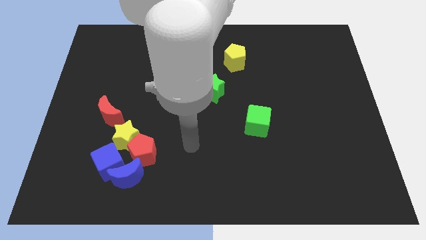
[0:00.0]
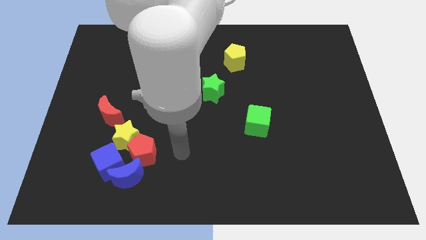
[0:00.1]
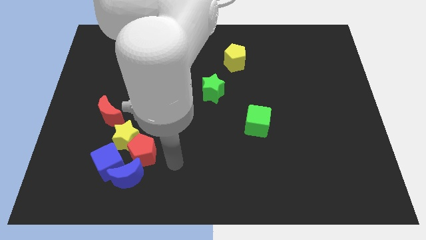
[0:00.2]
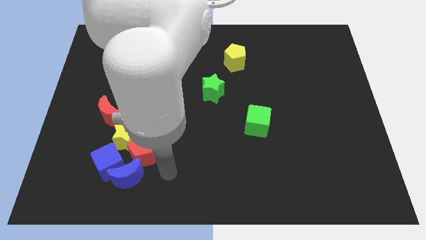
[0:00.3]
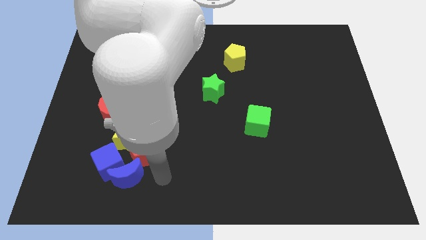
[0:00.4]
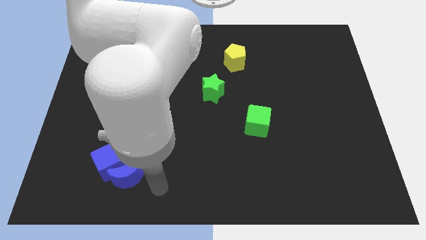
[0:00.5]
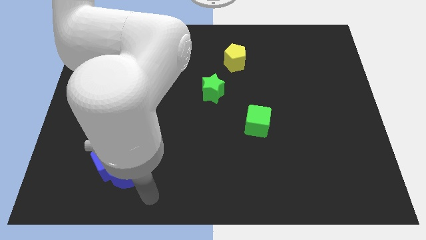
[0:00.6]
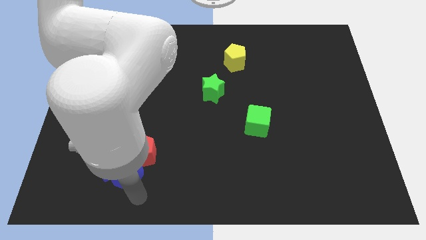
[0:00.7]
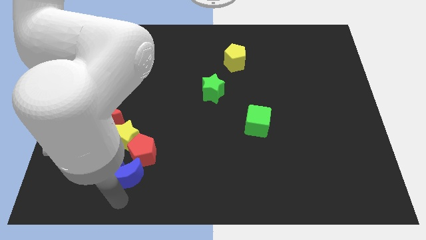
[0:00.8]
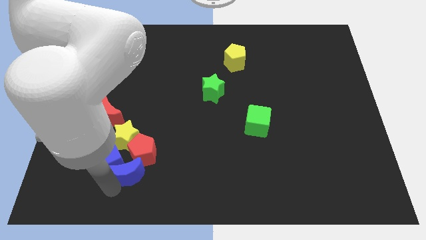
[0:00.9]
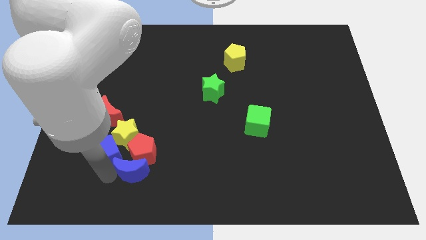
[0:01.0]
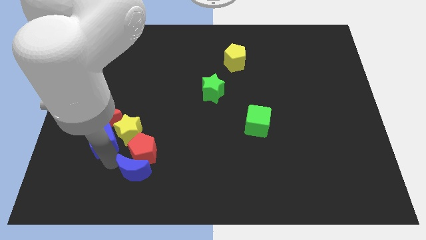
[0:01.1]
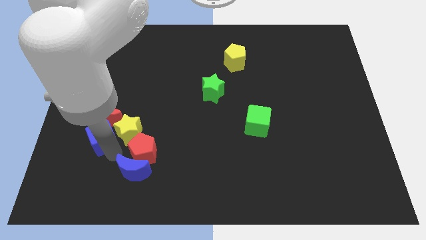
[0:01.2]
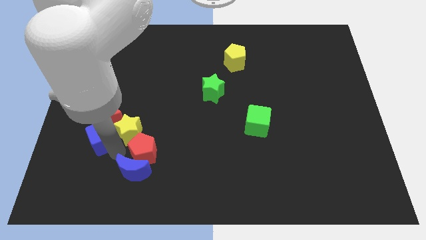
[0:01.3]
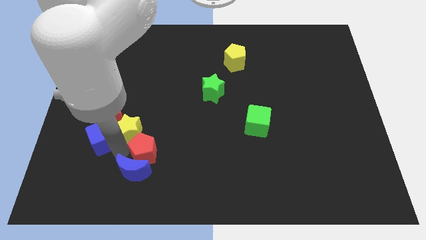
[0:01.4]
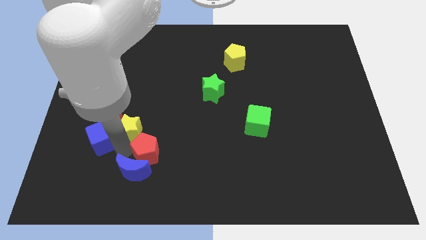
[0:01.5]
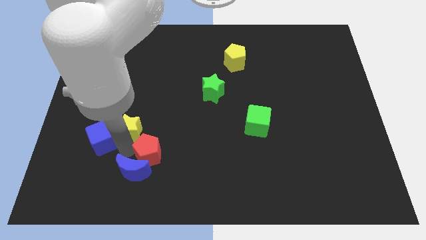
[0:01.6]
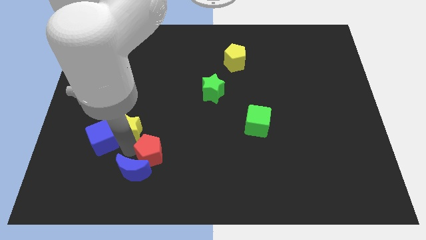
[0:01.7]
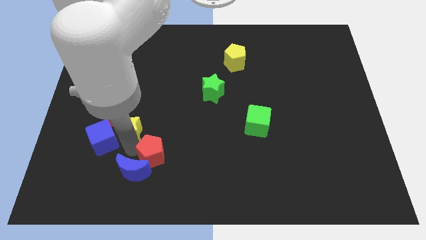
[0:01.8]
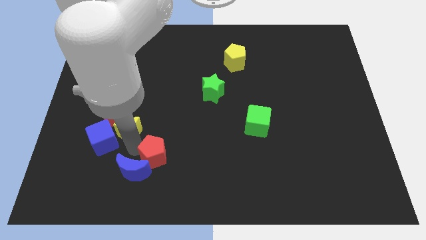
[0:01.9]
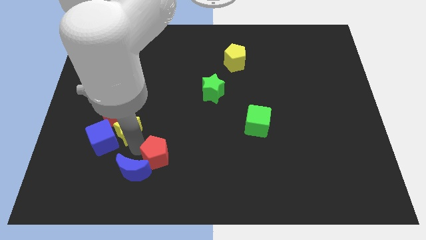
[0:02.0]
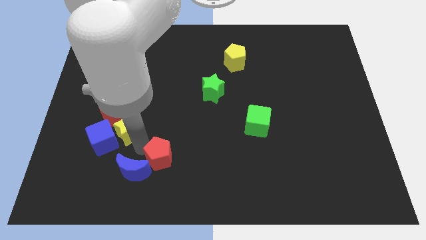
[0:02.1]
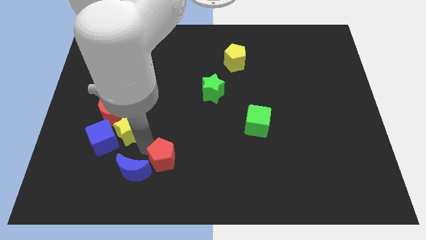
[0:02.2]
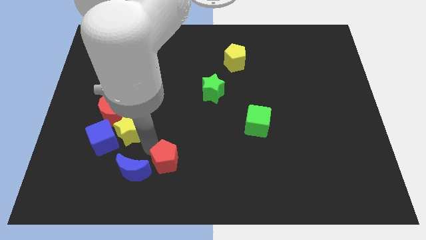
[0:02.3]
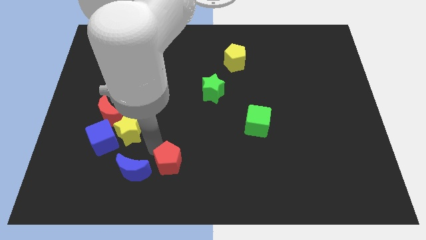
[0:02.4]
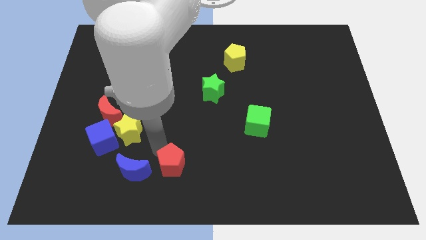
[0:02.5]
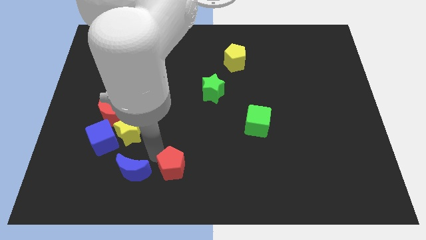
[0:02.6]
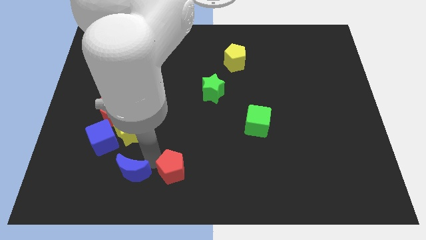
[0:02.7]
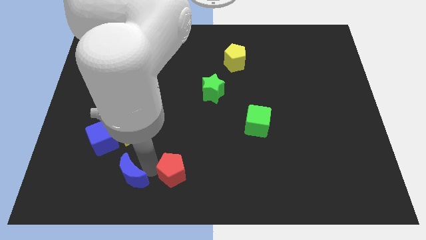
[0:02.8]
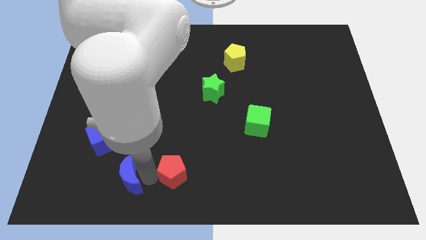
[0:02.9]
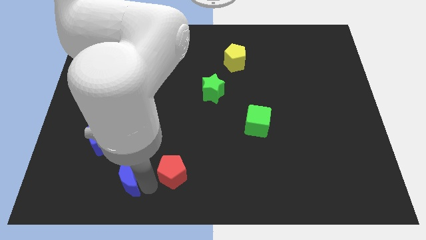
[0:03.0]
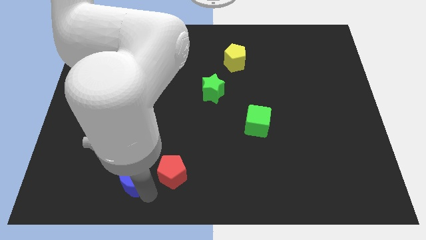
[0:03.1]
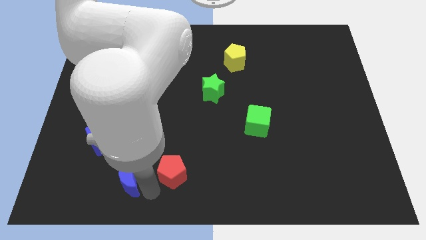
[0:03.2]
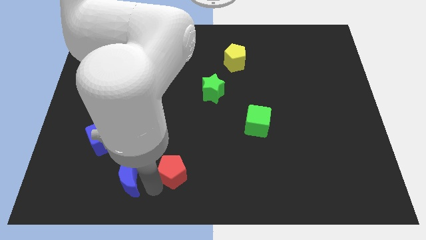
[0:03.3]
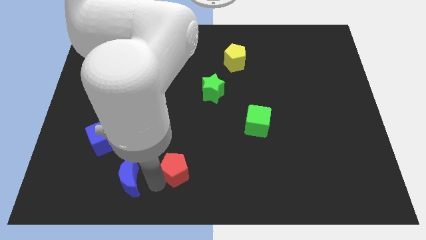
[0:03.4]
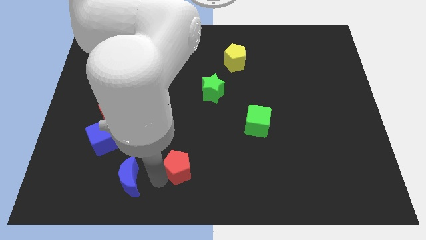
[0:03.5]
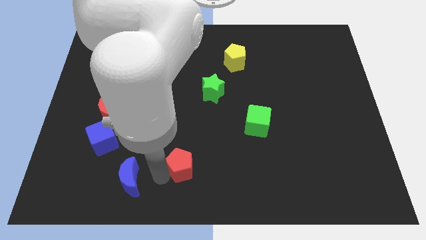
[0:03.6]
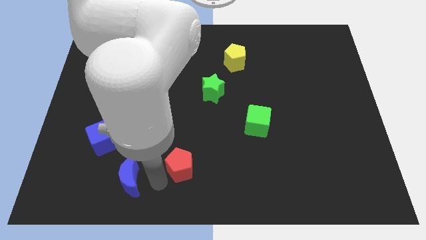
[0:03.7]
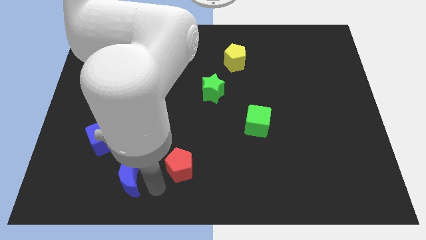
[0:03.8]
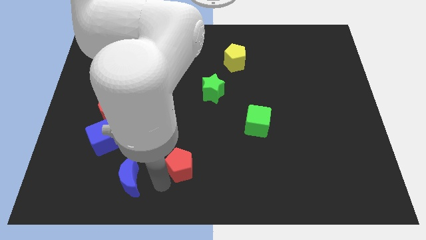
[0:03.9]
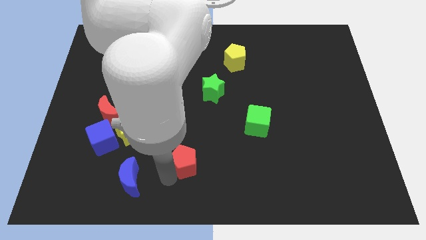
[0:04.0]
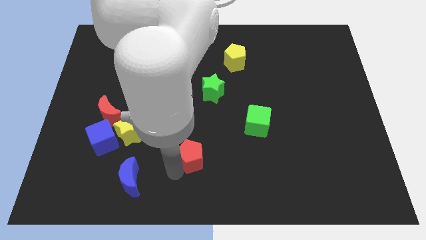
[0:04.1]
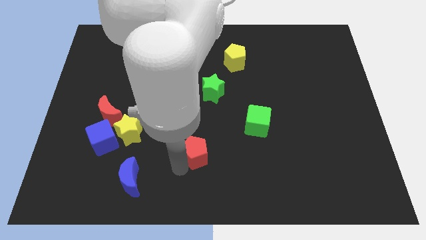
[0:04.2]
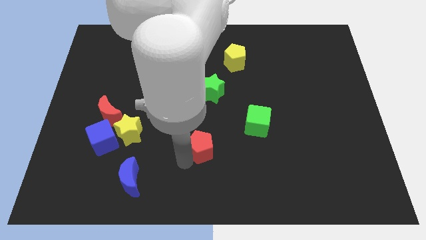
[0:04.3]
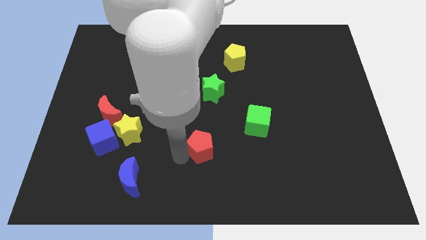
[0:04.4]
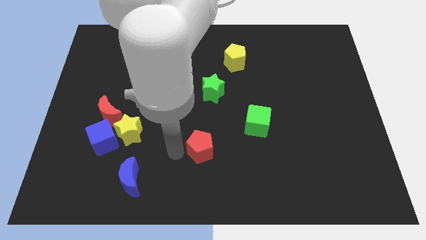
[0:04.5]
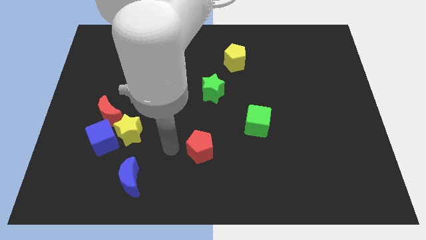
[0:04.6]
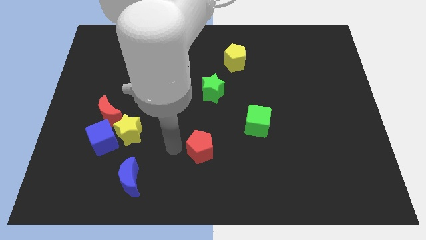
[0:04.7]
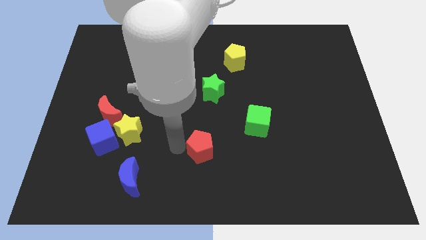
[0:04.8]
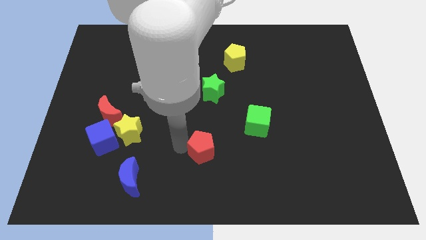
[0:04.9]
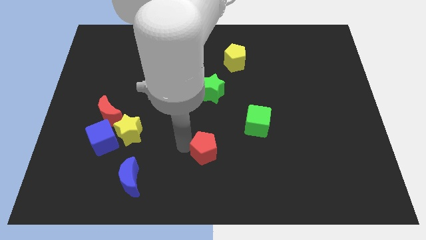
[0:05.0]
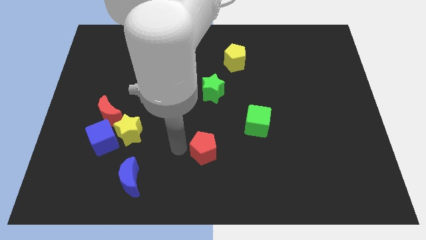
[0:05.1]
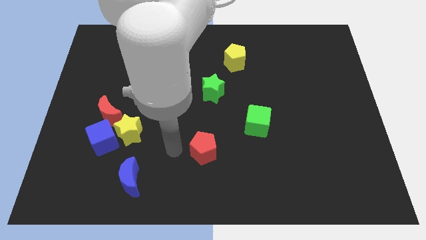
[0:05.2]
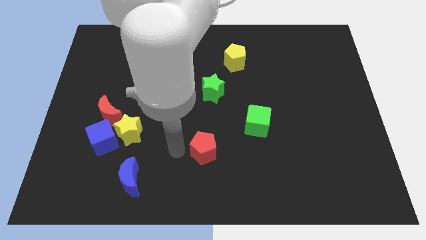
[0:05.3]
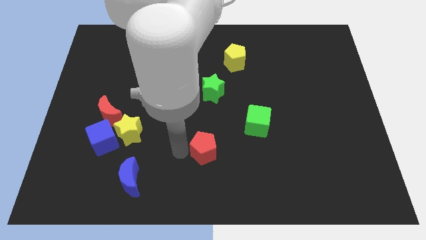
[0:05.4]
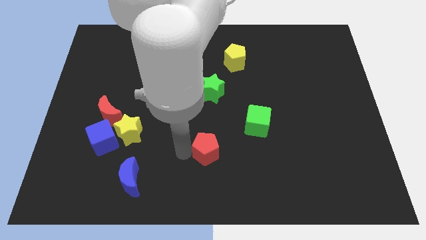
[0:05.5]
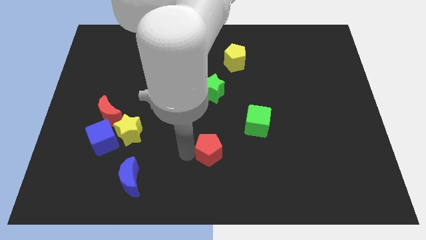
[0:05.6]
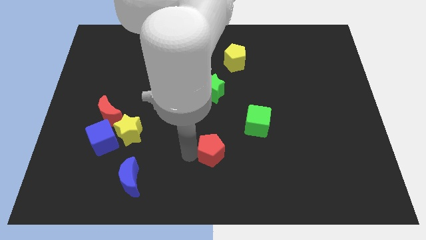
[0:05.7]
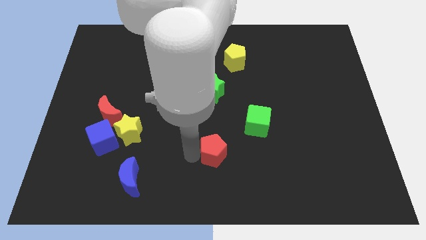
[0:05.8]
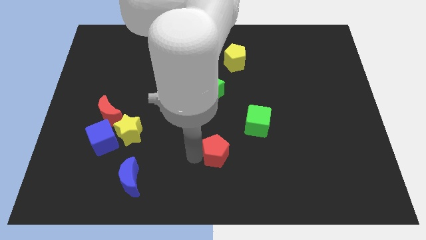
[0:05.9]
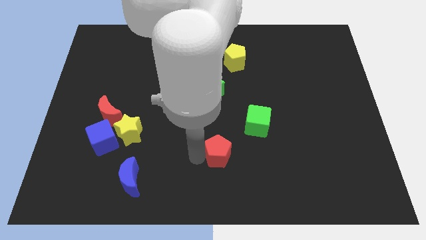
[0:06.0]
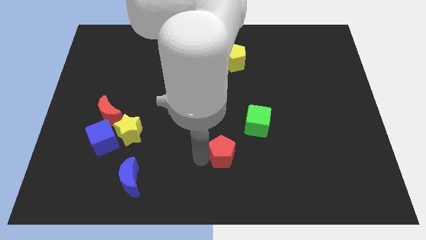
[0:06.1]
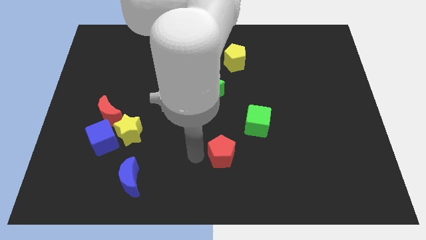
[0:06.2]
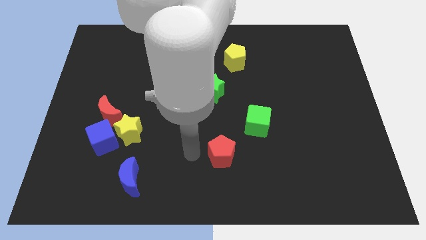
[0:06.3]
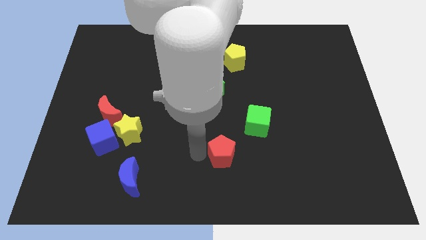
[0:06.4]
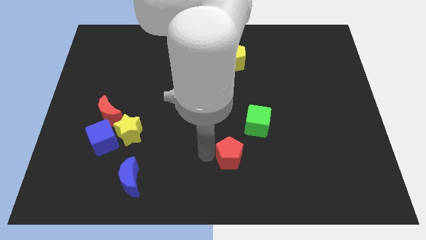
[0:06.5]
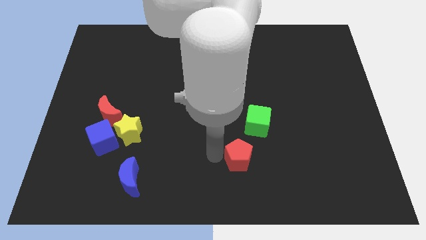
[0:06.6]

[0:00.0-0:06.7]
push the red pentagon right

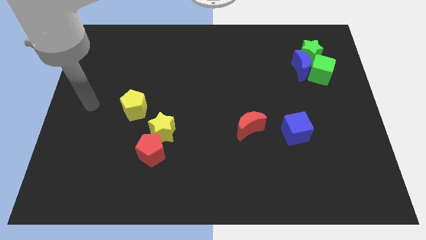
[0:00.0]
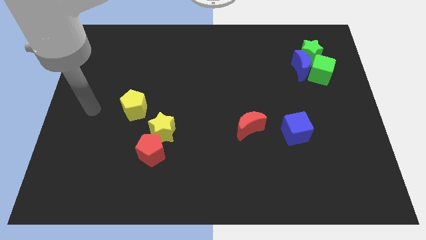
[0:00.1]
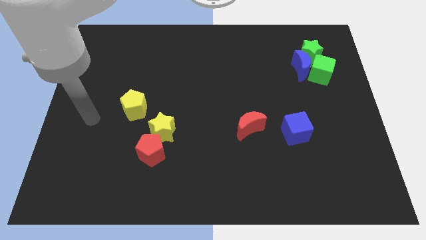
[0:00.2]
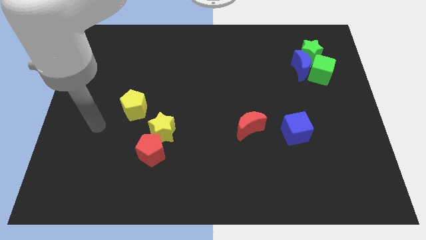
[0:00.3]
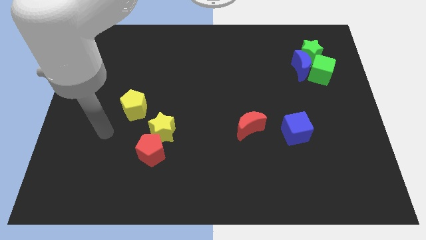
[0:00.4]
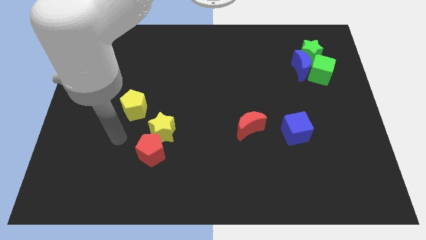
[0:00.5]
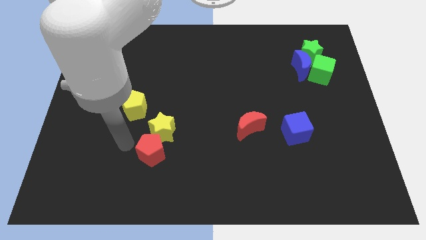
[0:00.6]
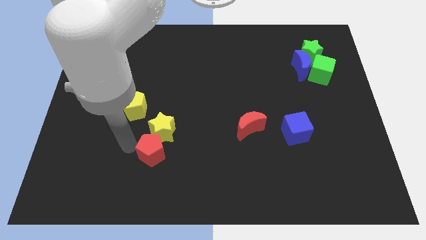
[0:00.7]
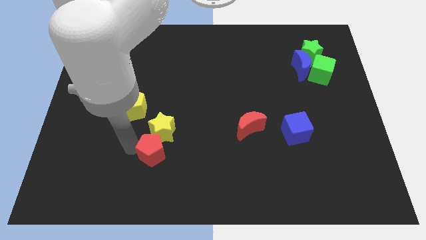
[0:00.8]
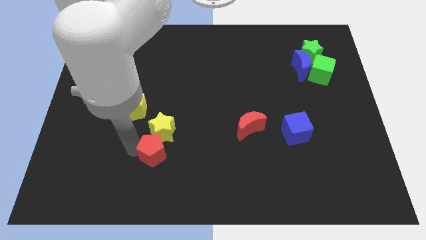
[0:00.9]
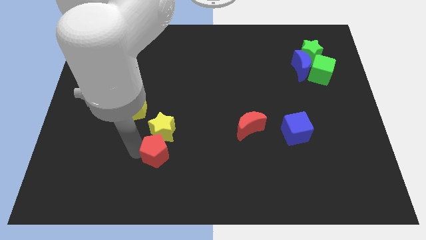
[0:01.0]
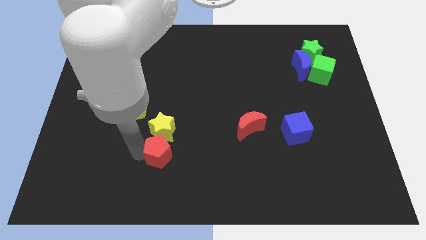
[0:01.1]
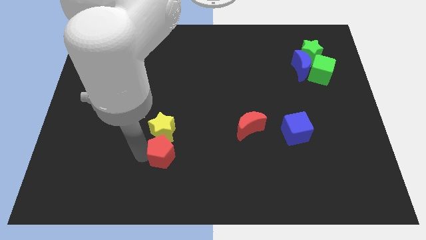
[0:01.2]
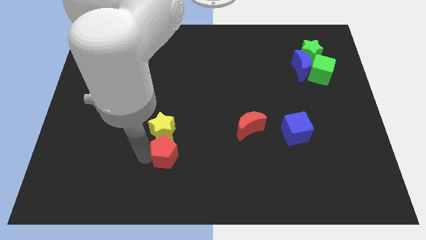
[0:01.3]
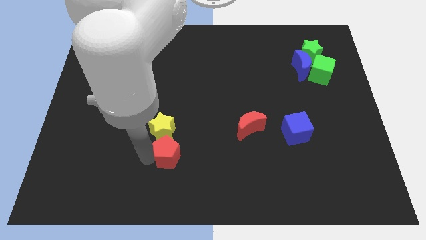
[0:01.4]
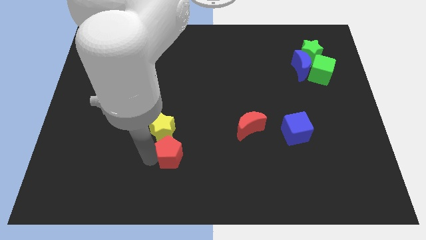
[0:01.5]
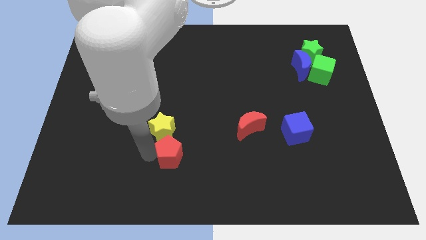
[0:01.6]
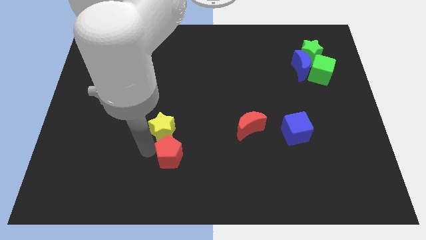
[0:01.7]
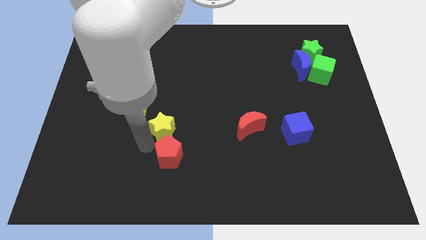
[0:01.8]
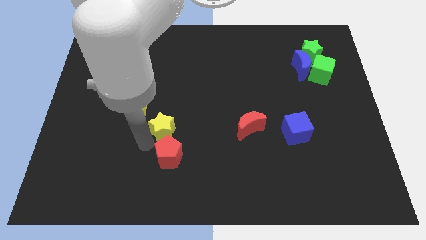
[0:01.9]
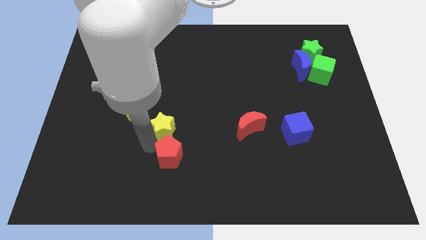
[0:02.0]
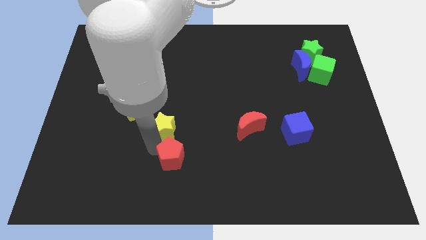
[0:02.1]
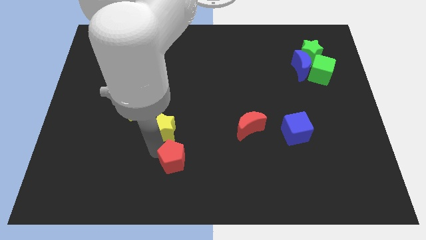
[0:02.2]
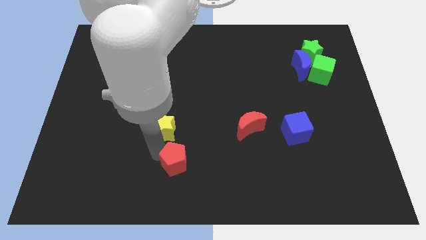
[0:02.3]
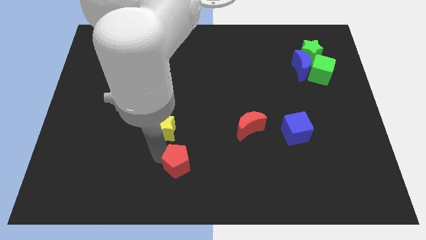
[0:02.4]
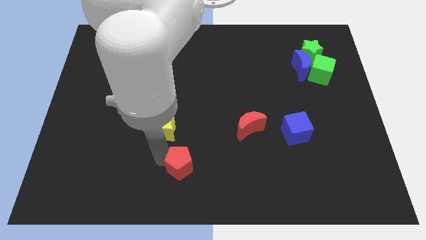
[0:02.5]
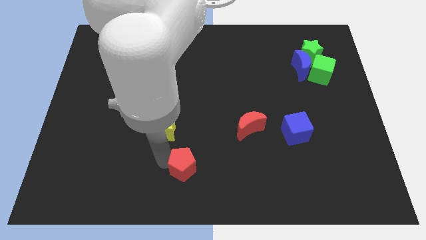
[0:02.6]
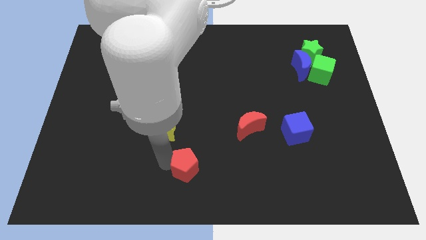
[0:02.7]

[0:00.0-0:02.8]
slightly push the red pentagon right
